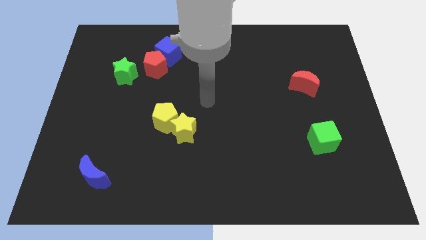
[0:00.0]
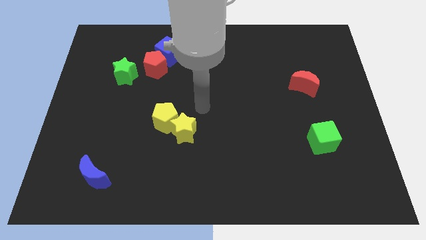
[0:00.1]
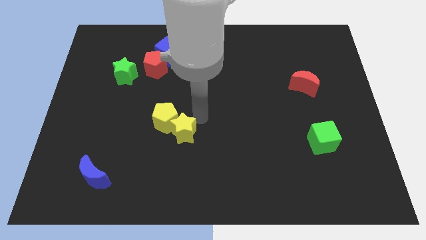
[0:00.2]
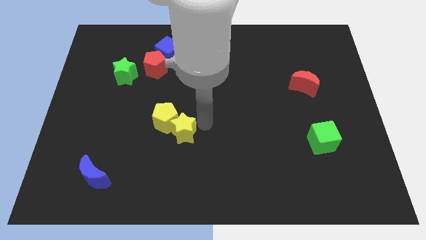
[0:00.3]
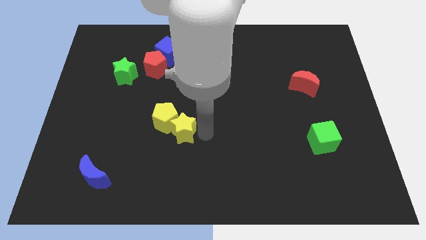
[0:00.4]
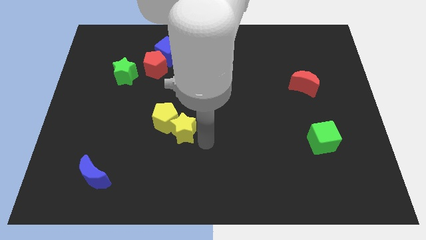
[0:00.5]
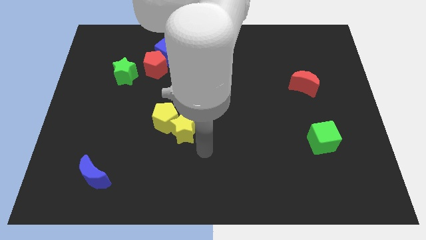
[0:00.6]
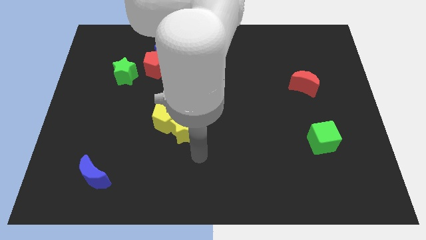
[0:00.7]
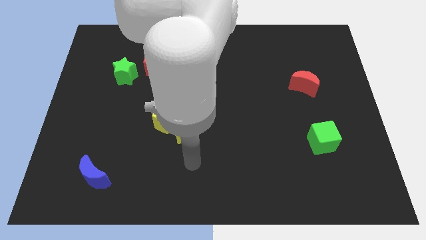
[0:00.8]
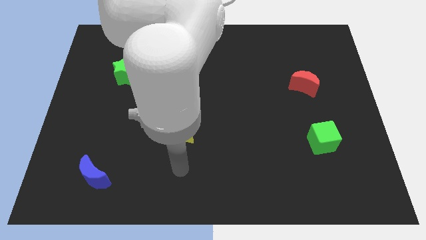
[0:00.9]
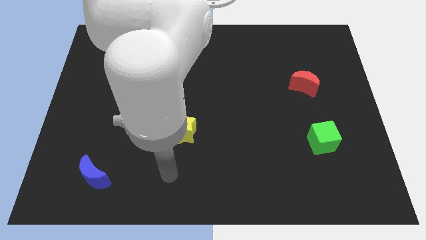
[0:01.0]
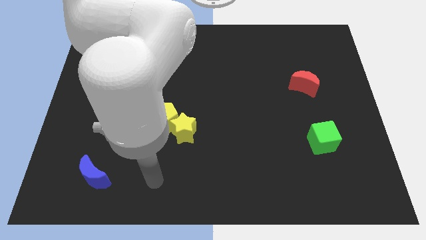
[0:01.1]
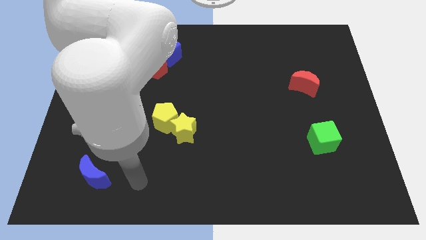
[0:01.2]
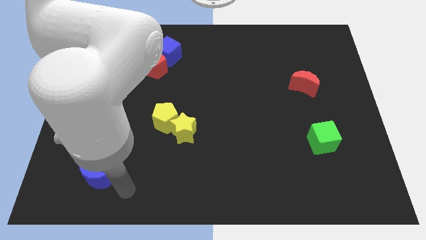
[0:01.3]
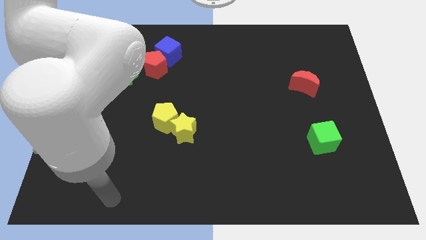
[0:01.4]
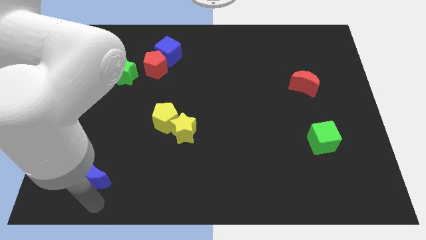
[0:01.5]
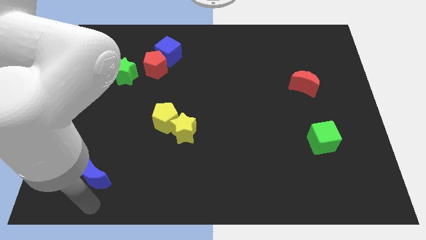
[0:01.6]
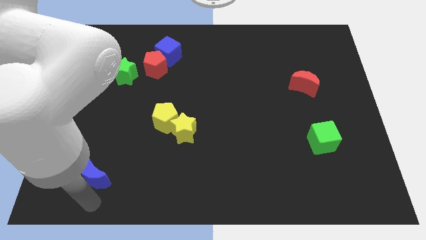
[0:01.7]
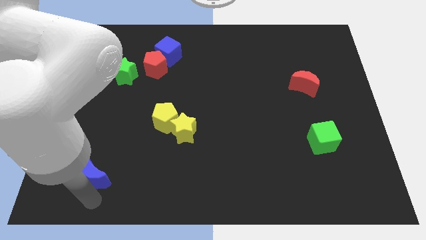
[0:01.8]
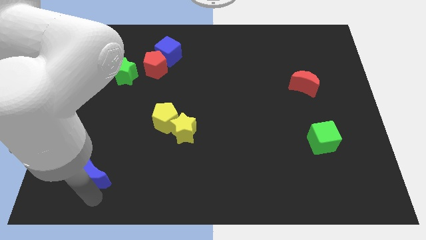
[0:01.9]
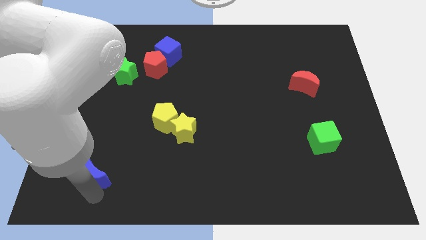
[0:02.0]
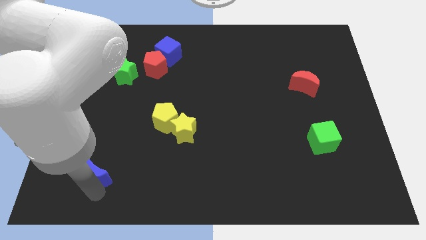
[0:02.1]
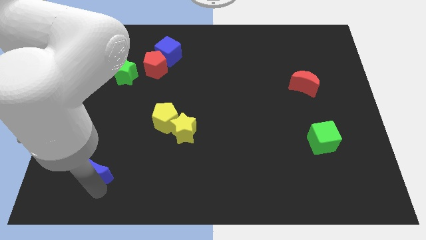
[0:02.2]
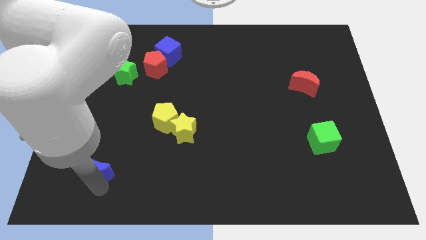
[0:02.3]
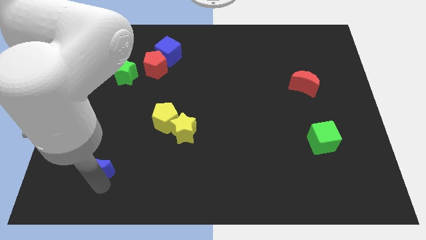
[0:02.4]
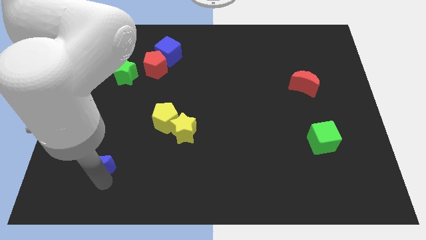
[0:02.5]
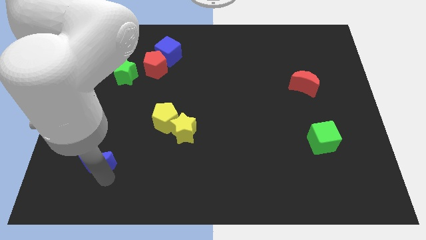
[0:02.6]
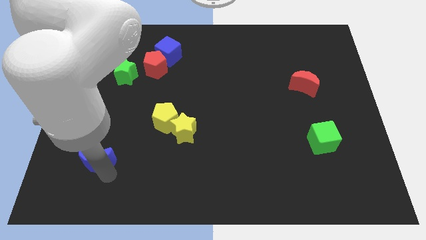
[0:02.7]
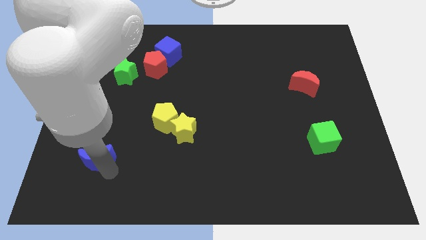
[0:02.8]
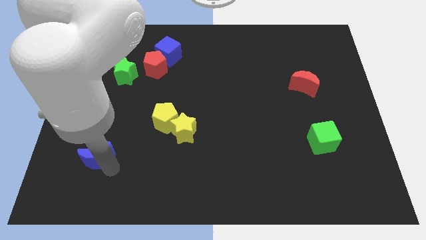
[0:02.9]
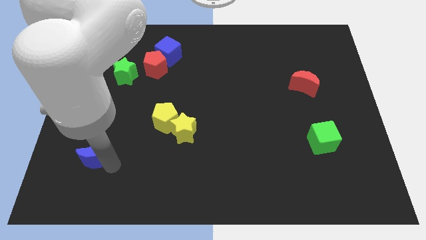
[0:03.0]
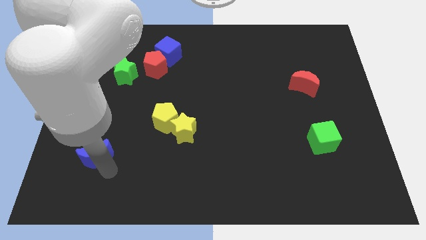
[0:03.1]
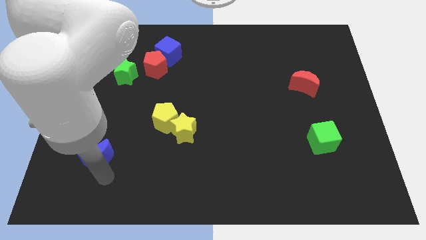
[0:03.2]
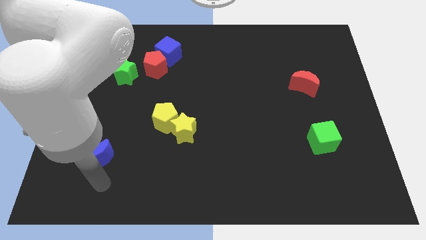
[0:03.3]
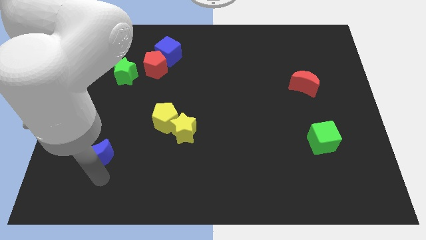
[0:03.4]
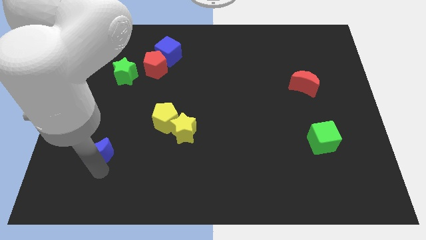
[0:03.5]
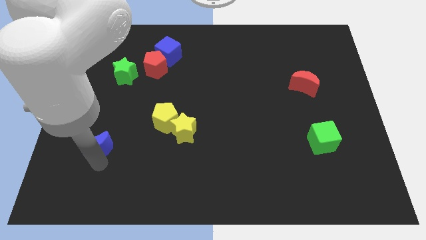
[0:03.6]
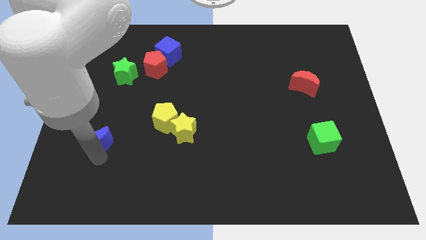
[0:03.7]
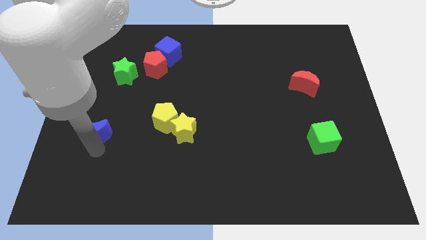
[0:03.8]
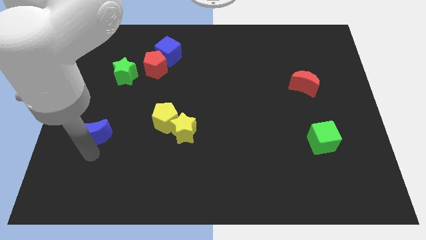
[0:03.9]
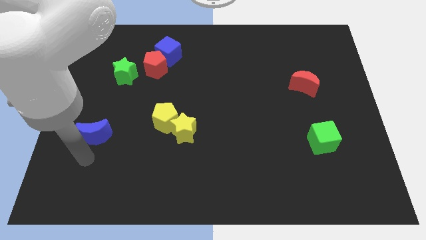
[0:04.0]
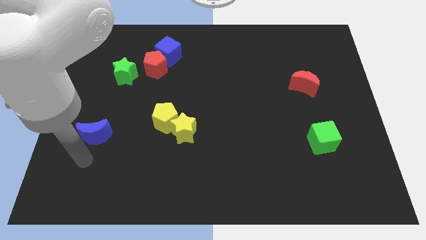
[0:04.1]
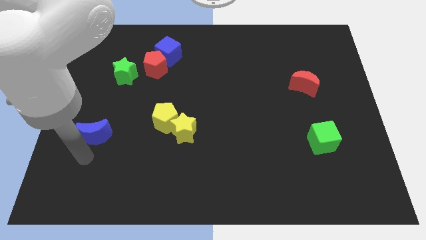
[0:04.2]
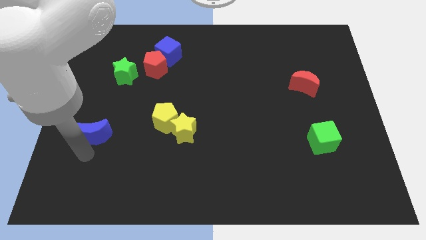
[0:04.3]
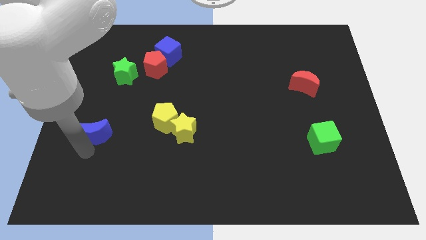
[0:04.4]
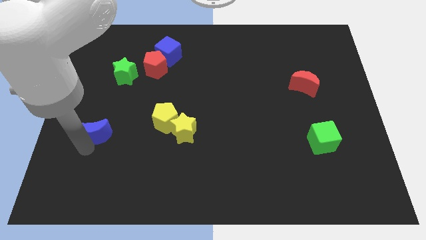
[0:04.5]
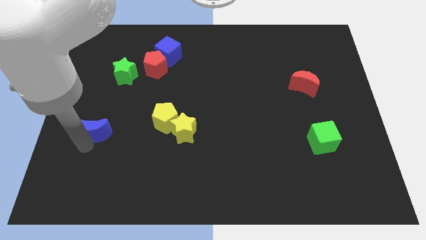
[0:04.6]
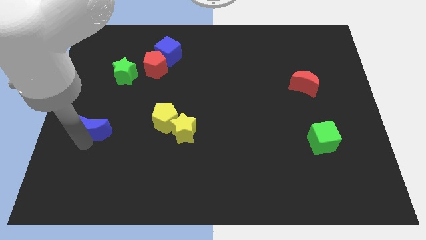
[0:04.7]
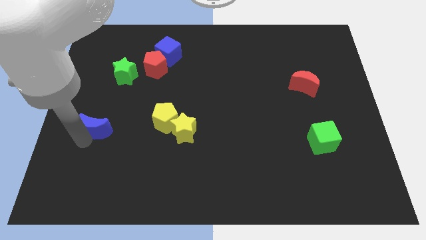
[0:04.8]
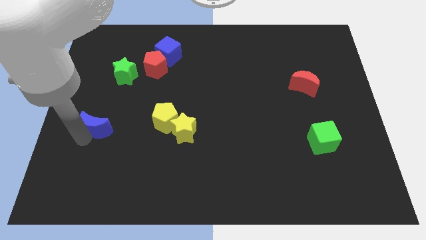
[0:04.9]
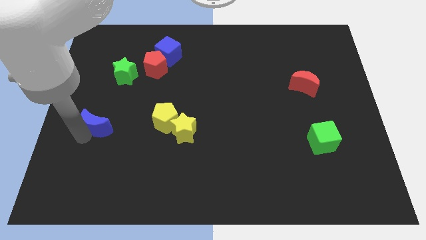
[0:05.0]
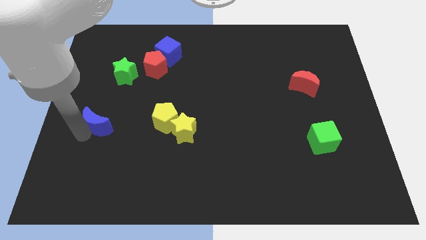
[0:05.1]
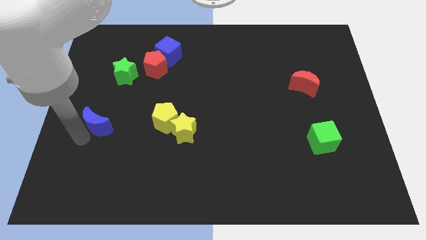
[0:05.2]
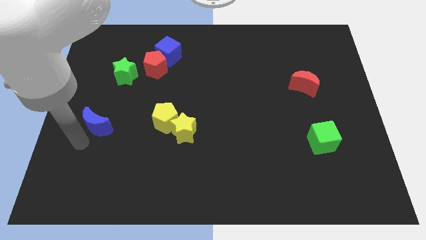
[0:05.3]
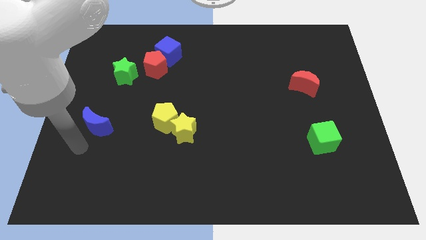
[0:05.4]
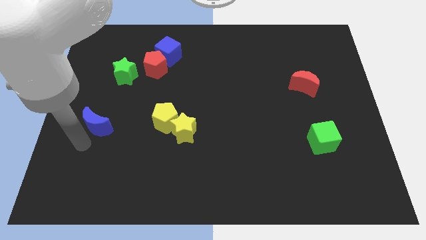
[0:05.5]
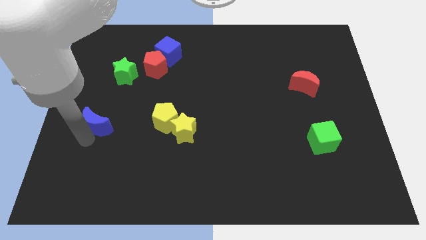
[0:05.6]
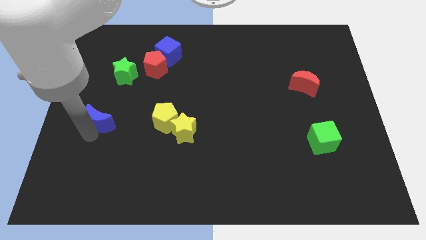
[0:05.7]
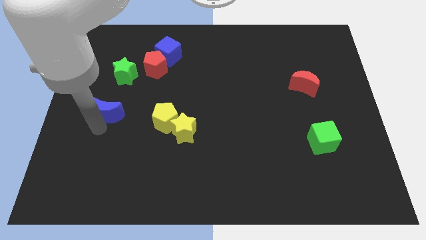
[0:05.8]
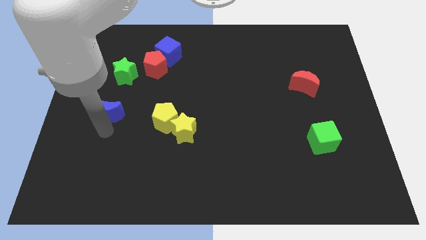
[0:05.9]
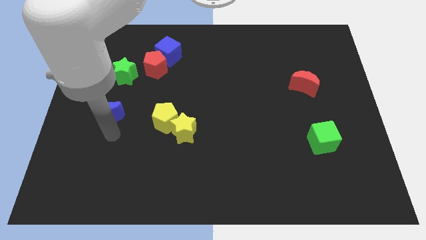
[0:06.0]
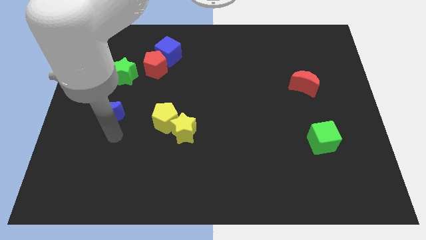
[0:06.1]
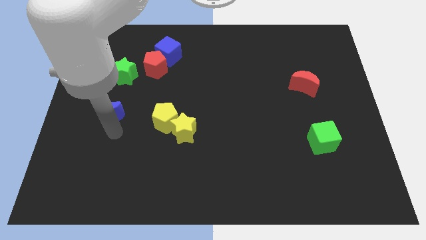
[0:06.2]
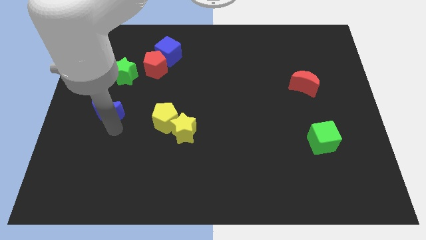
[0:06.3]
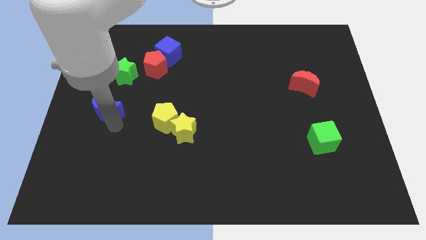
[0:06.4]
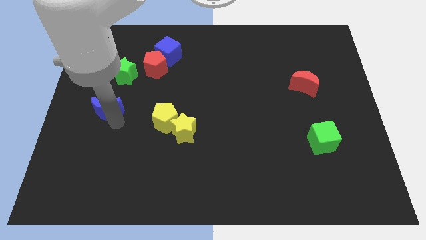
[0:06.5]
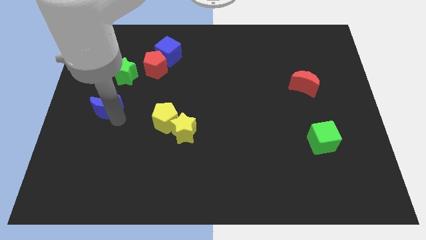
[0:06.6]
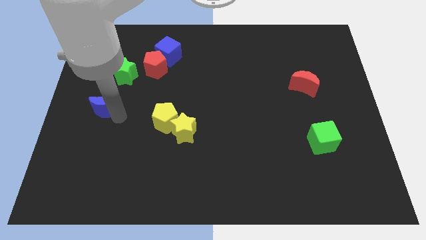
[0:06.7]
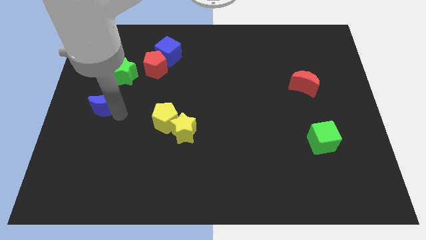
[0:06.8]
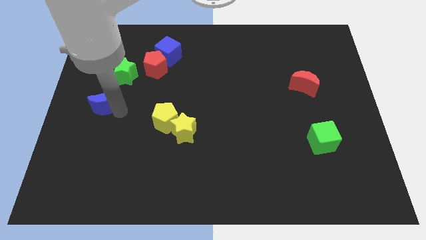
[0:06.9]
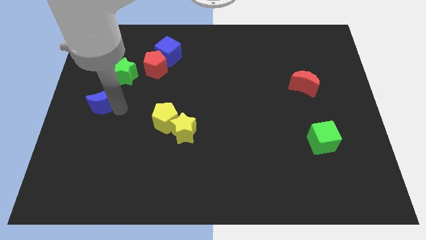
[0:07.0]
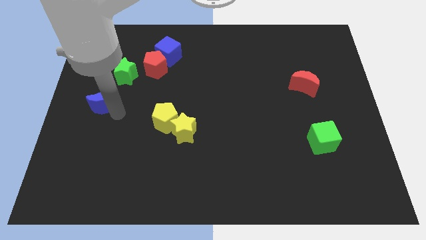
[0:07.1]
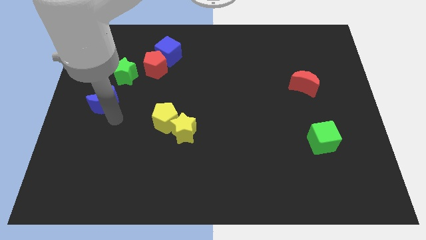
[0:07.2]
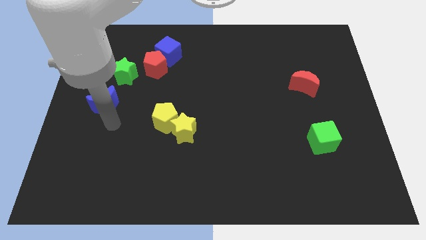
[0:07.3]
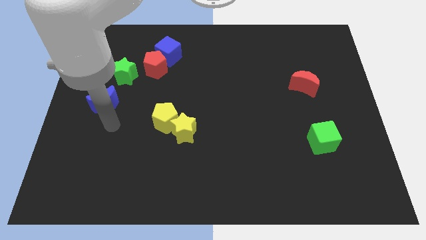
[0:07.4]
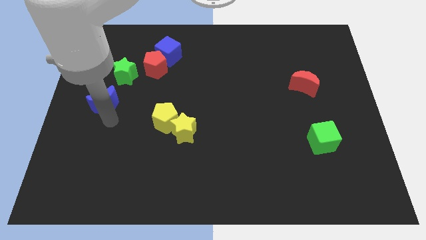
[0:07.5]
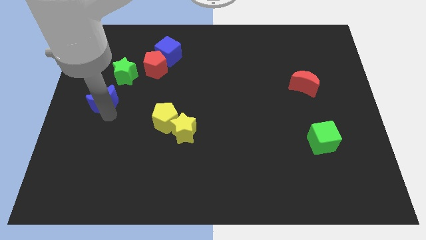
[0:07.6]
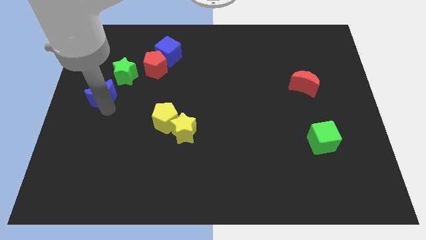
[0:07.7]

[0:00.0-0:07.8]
move the blue moon up
